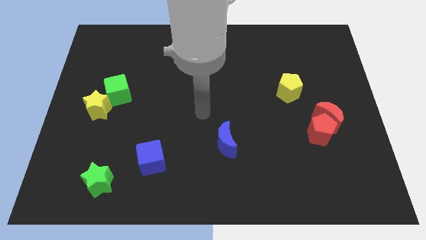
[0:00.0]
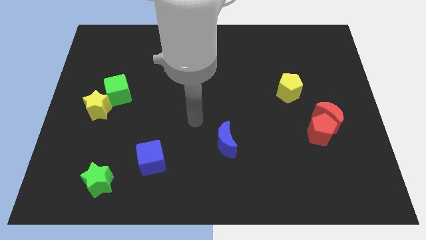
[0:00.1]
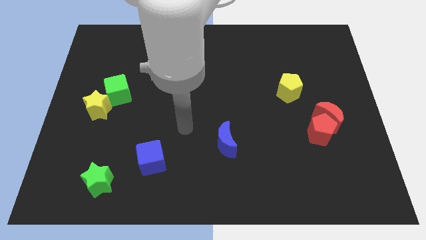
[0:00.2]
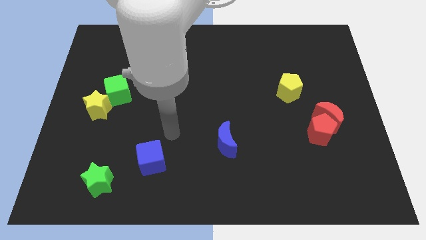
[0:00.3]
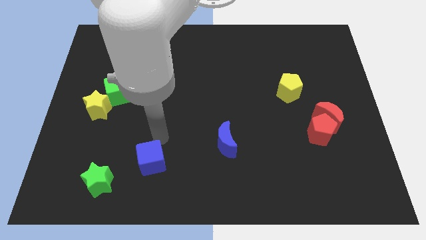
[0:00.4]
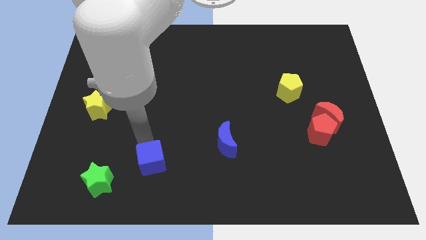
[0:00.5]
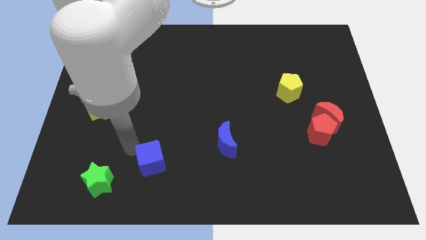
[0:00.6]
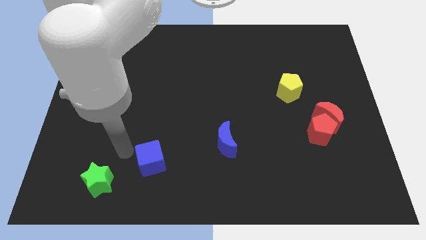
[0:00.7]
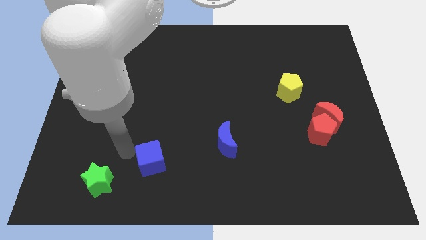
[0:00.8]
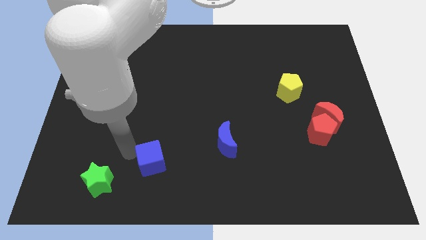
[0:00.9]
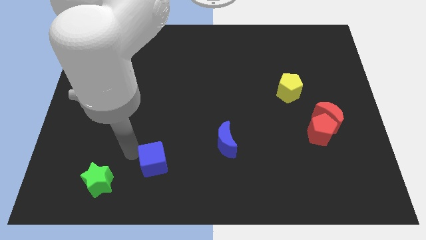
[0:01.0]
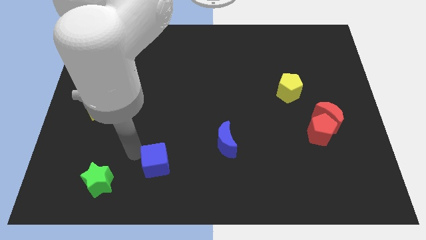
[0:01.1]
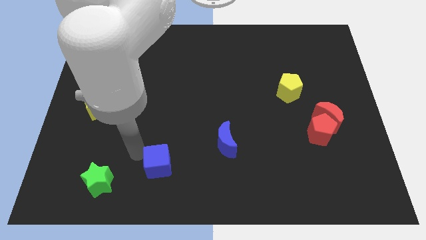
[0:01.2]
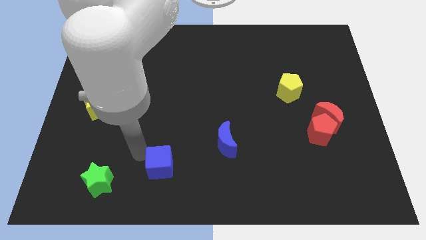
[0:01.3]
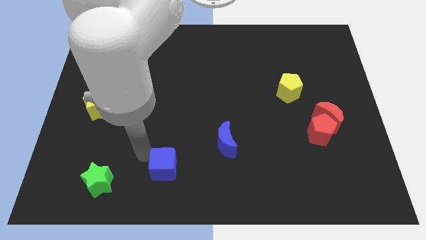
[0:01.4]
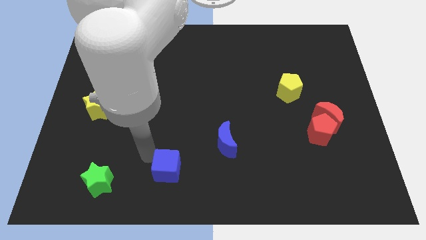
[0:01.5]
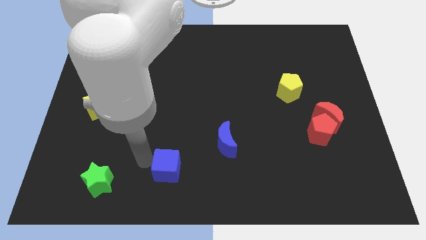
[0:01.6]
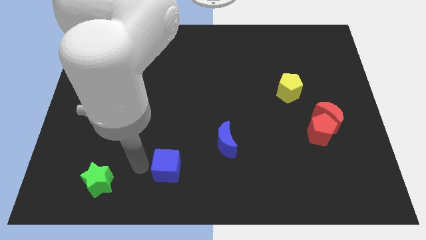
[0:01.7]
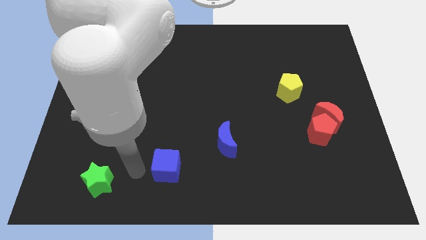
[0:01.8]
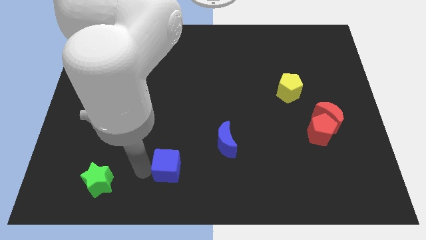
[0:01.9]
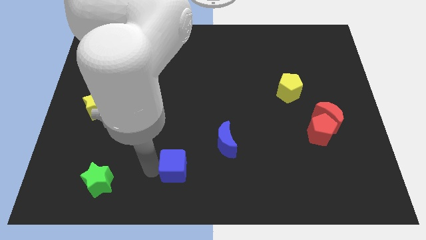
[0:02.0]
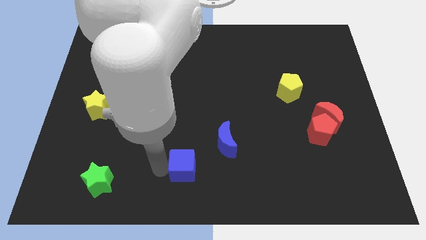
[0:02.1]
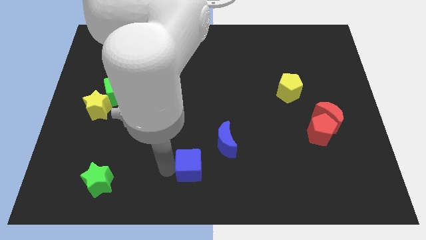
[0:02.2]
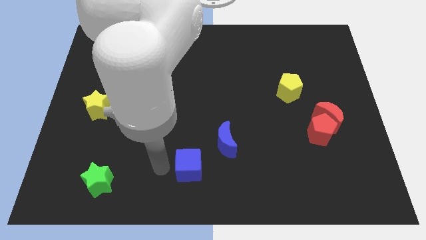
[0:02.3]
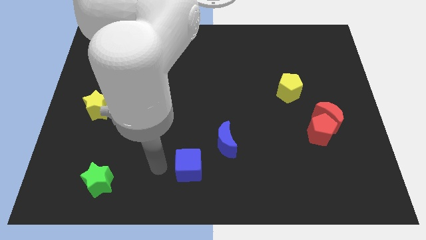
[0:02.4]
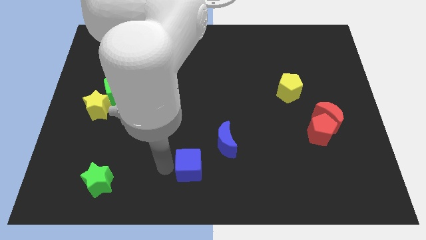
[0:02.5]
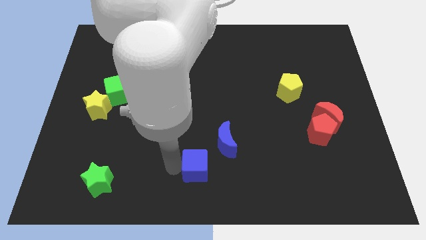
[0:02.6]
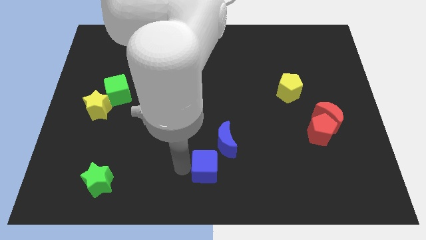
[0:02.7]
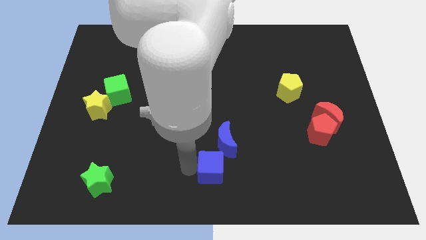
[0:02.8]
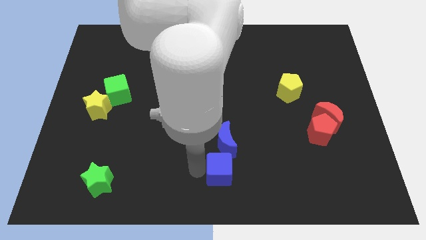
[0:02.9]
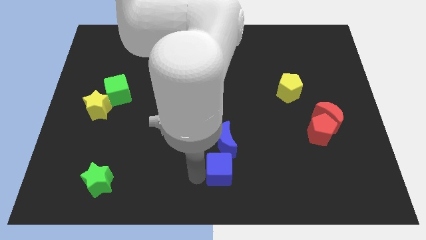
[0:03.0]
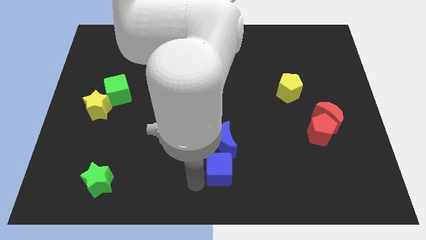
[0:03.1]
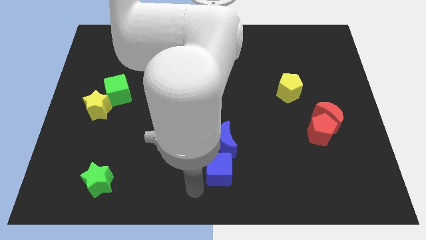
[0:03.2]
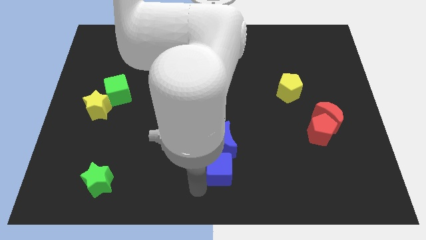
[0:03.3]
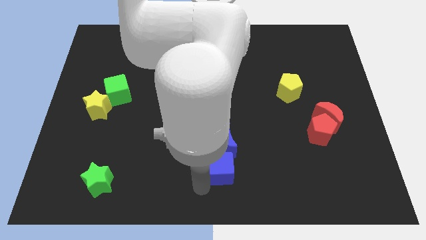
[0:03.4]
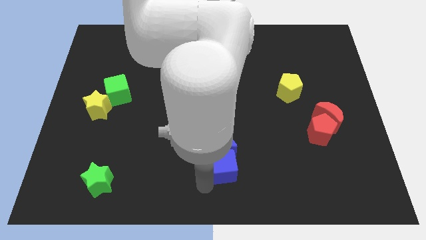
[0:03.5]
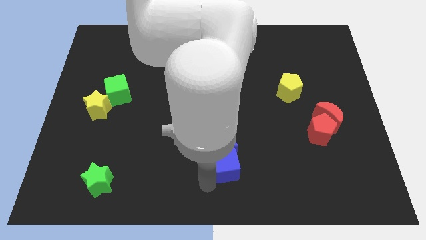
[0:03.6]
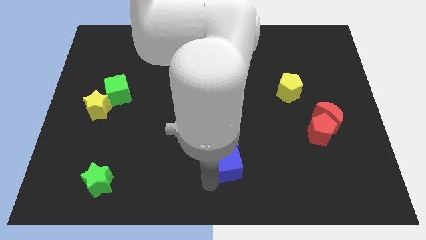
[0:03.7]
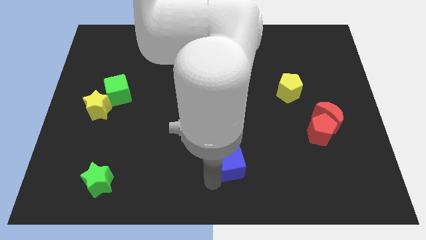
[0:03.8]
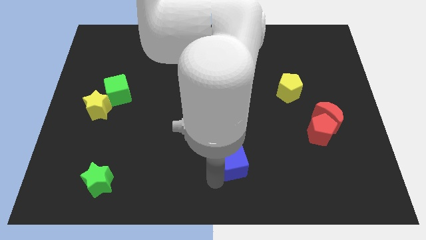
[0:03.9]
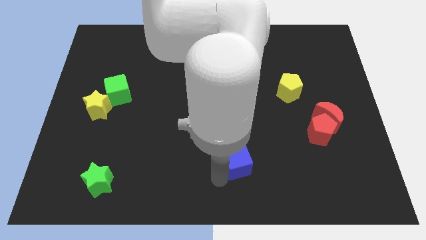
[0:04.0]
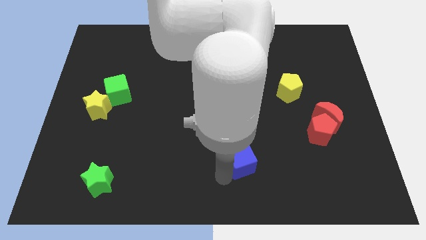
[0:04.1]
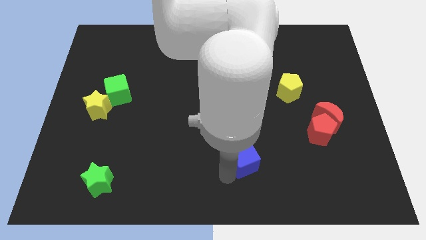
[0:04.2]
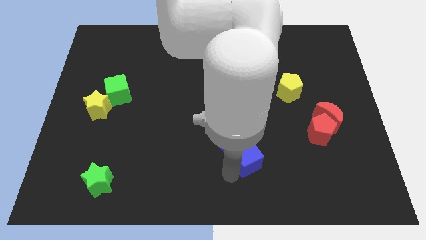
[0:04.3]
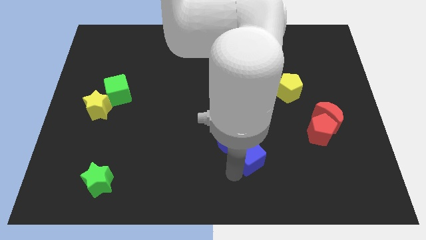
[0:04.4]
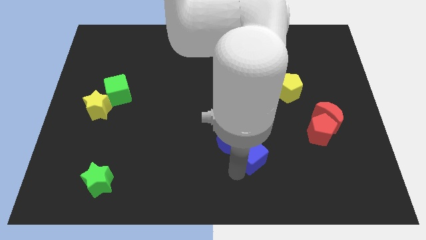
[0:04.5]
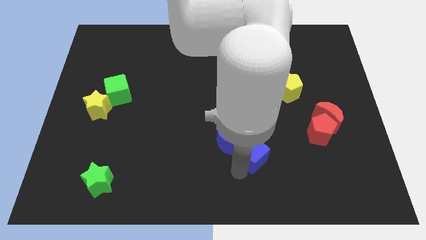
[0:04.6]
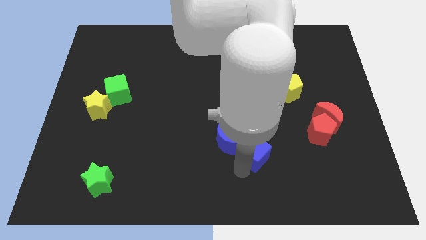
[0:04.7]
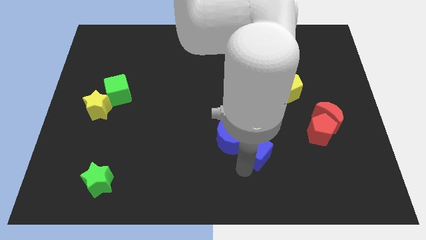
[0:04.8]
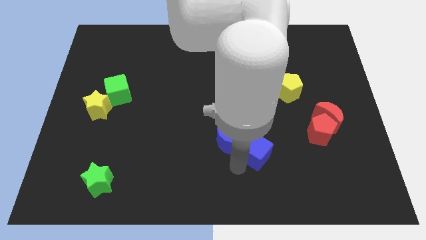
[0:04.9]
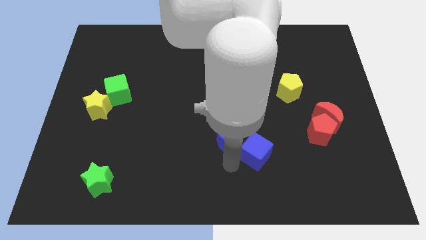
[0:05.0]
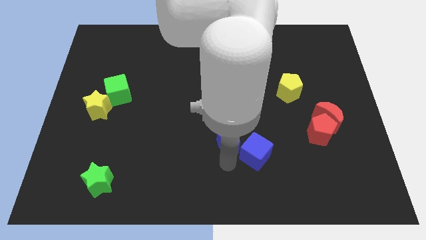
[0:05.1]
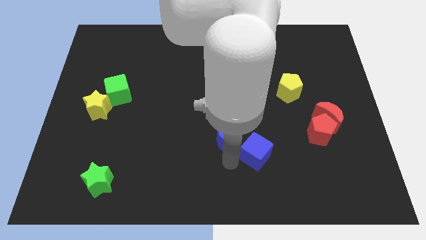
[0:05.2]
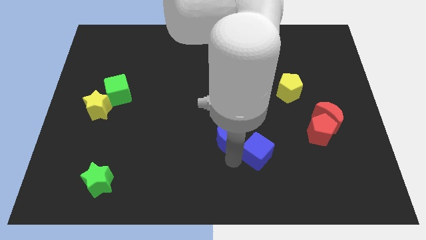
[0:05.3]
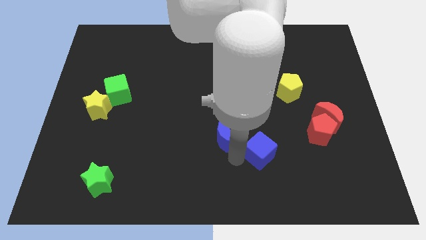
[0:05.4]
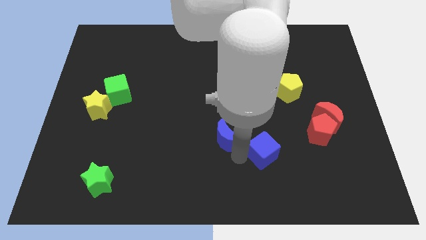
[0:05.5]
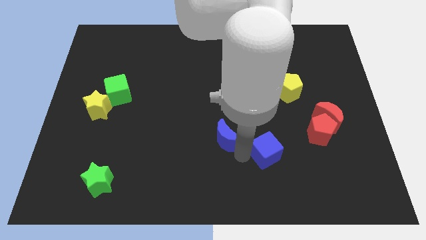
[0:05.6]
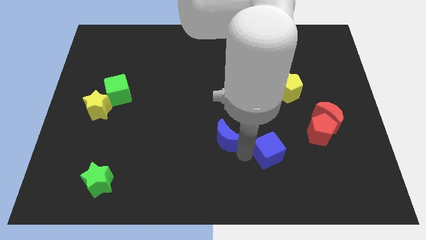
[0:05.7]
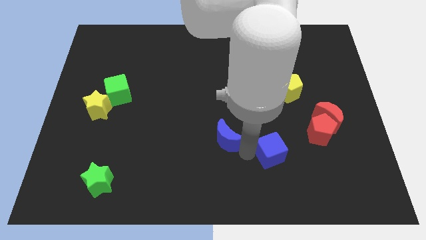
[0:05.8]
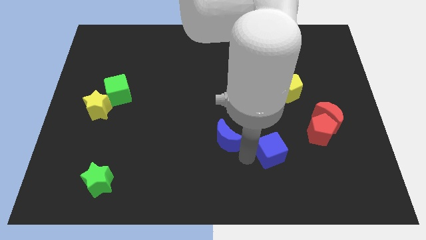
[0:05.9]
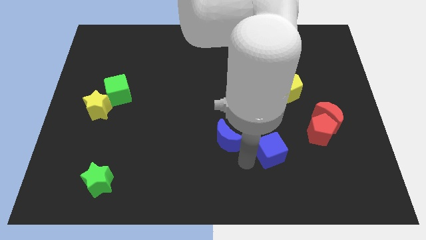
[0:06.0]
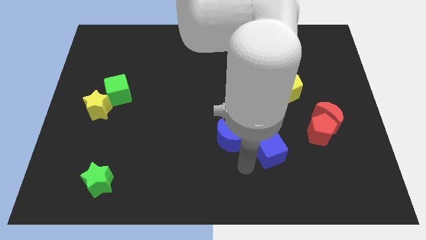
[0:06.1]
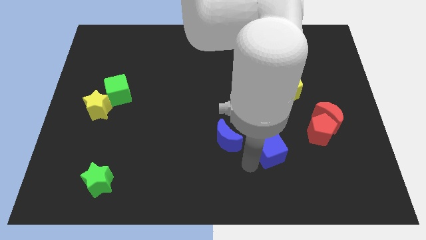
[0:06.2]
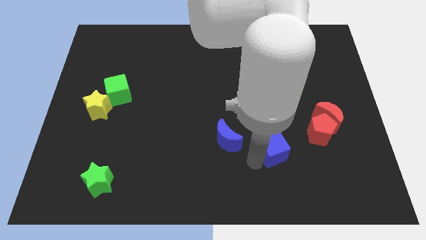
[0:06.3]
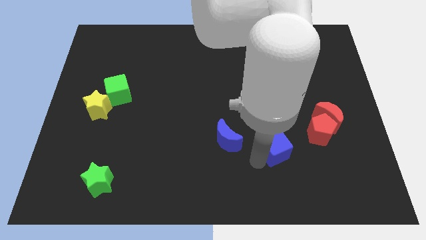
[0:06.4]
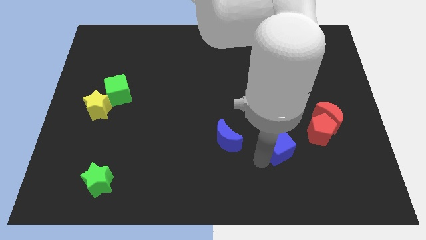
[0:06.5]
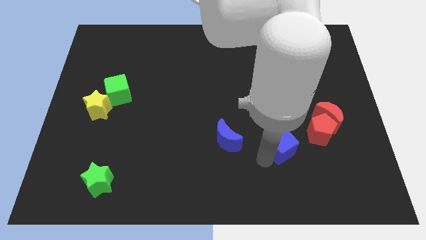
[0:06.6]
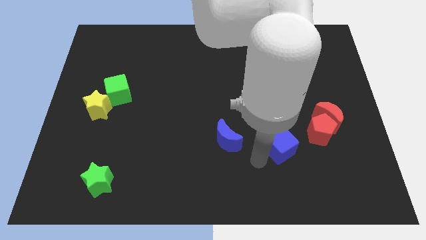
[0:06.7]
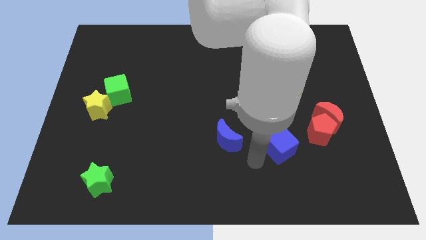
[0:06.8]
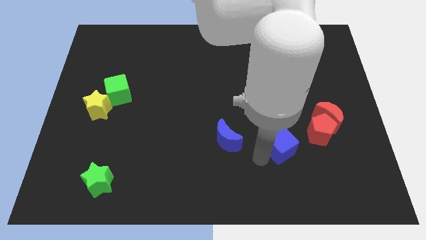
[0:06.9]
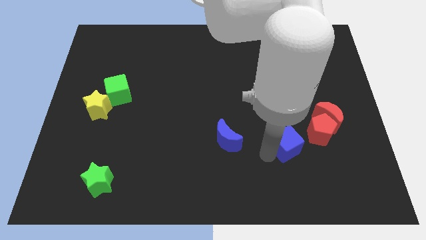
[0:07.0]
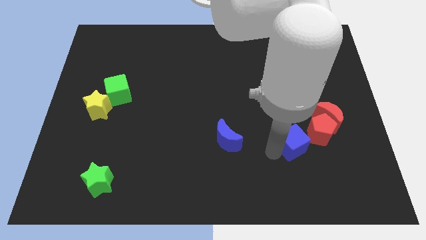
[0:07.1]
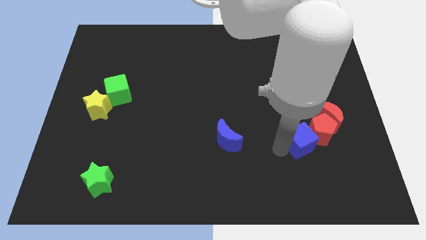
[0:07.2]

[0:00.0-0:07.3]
slide the blue cube to the red pentagon
